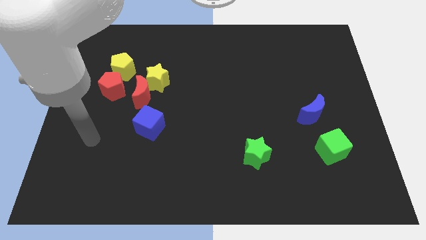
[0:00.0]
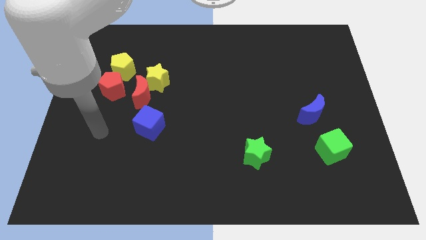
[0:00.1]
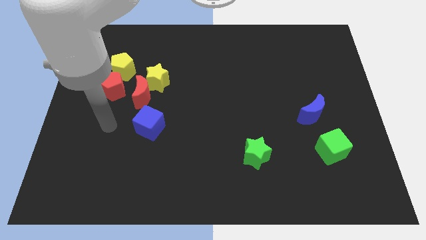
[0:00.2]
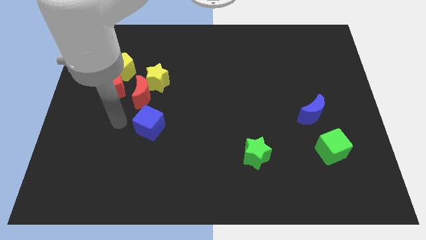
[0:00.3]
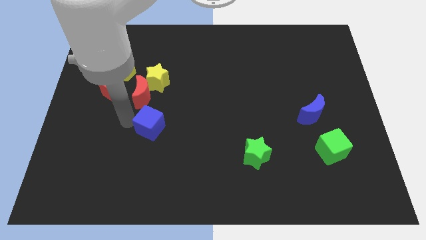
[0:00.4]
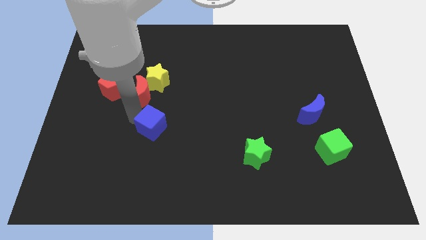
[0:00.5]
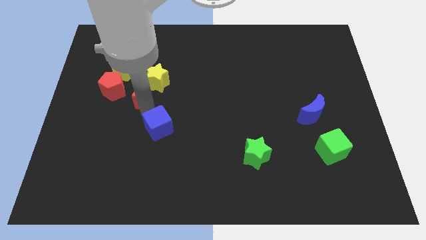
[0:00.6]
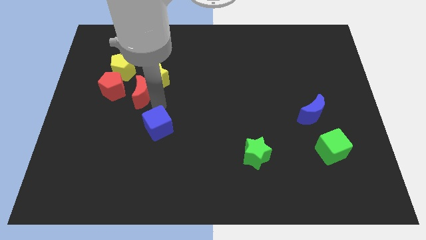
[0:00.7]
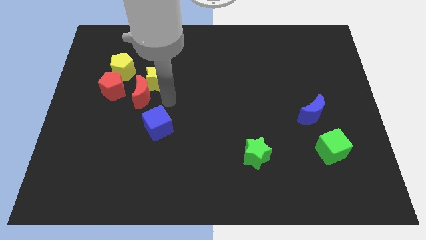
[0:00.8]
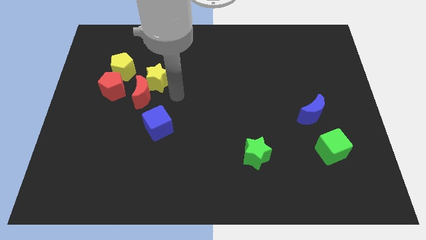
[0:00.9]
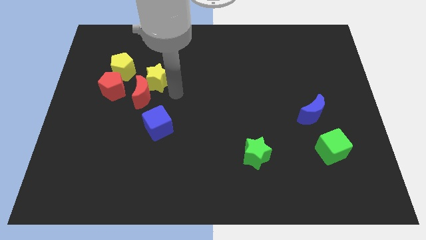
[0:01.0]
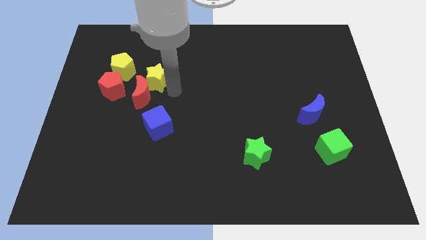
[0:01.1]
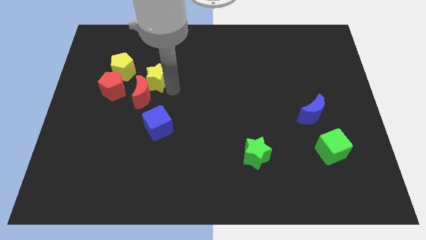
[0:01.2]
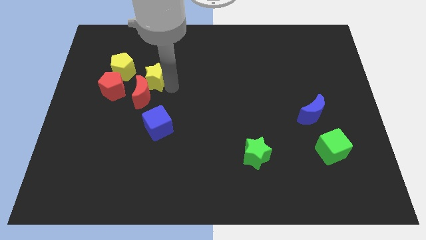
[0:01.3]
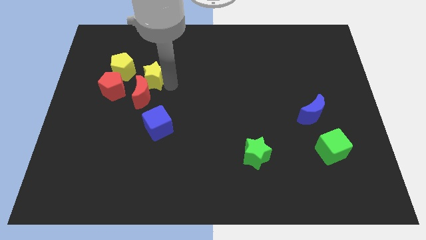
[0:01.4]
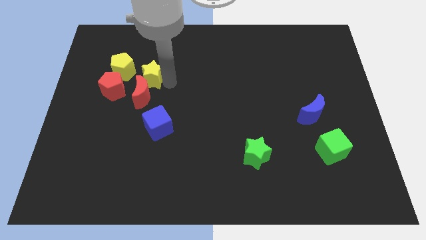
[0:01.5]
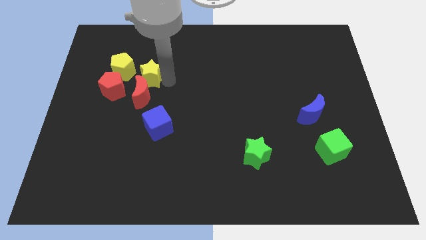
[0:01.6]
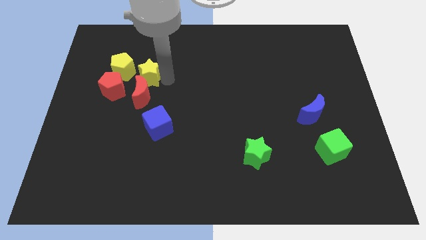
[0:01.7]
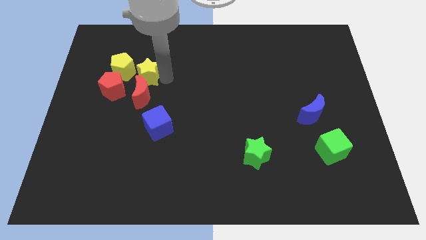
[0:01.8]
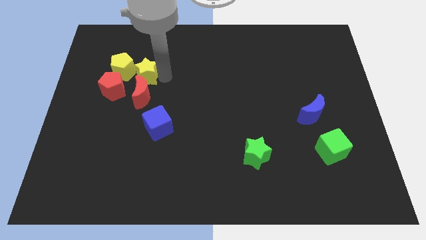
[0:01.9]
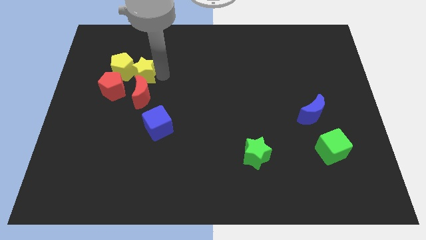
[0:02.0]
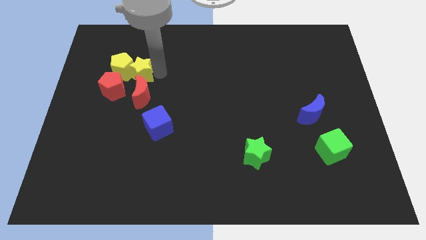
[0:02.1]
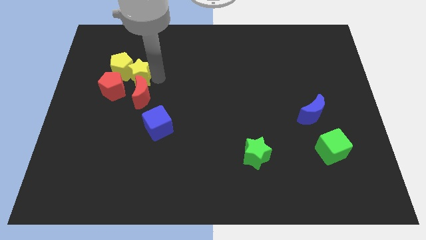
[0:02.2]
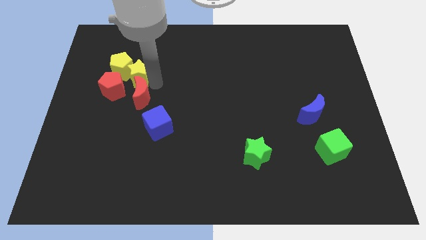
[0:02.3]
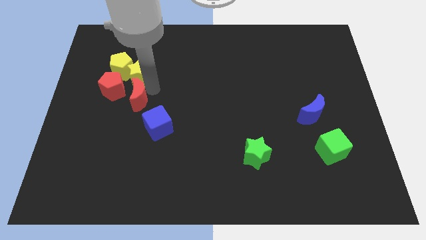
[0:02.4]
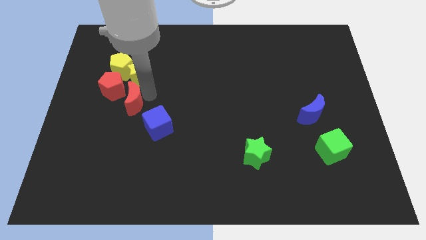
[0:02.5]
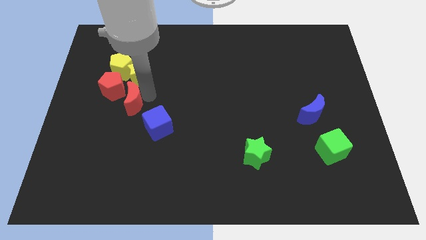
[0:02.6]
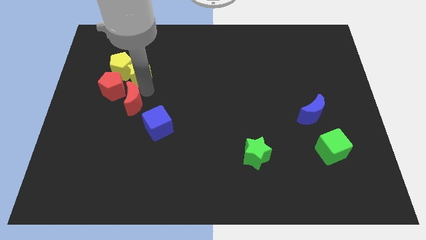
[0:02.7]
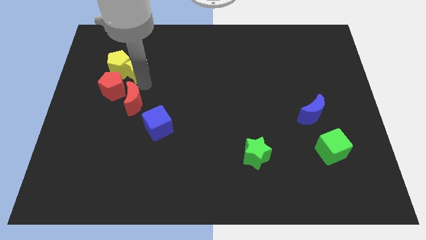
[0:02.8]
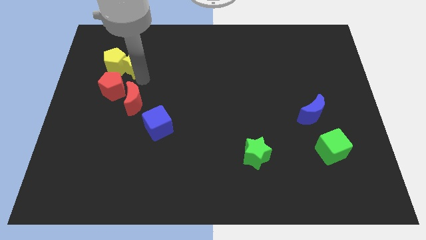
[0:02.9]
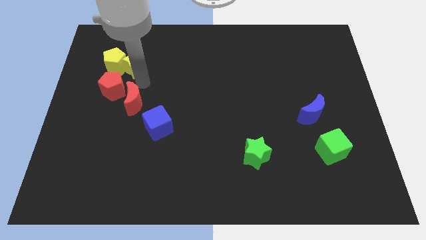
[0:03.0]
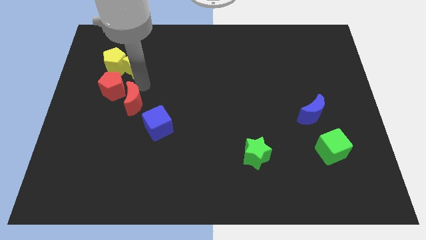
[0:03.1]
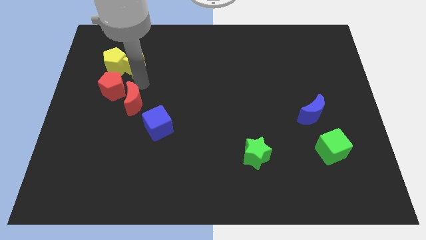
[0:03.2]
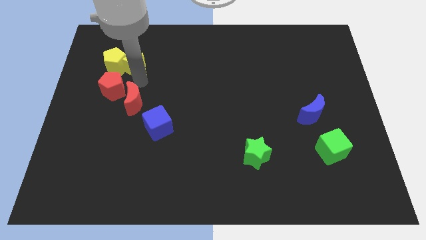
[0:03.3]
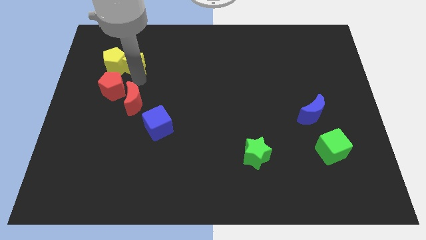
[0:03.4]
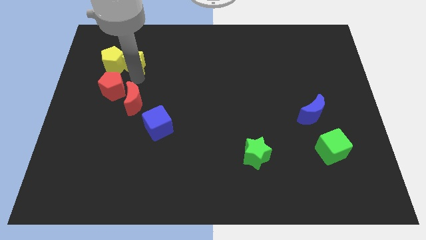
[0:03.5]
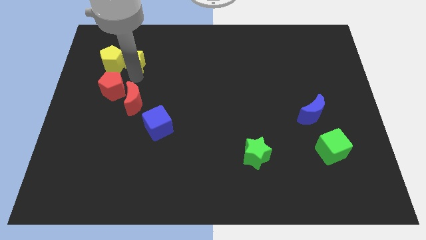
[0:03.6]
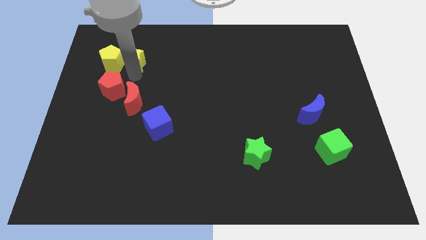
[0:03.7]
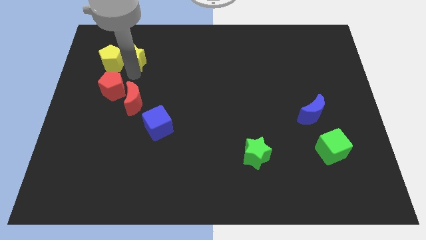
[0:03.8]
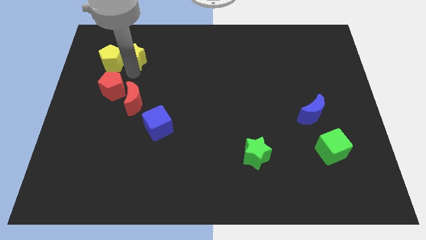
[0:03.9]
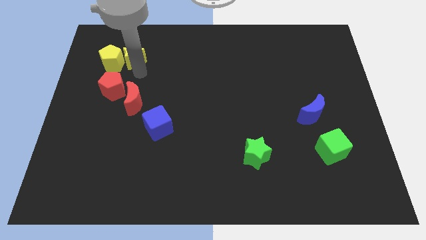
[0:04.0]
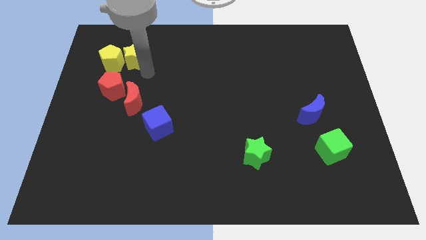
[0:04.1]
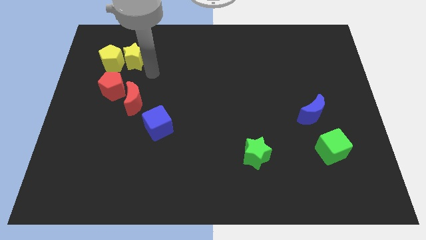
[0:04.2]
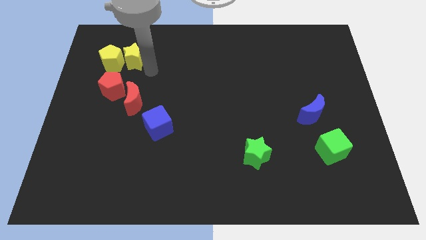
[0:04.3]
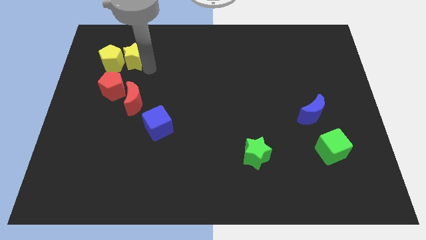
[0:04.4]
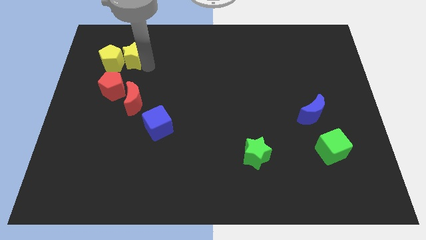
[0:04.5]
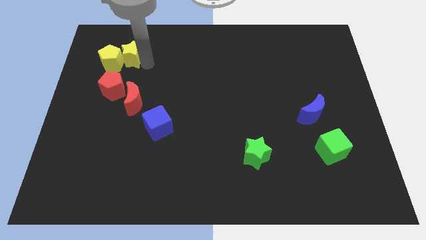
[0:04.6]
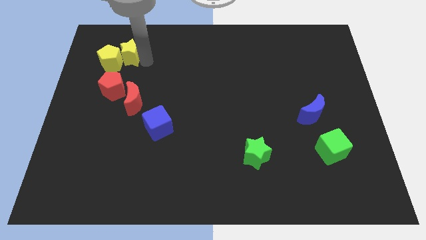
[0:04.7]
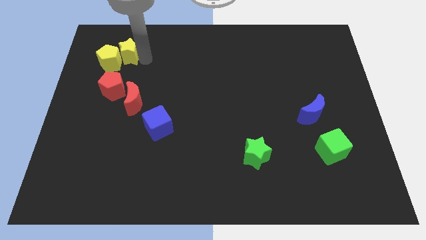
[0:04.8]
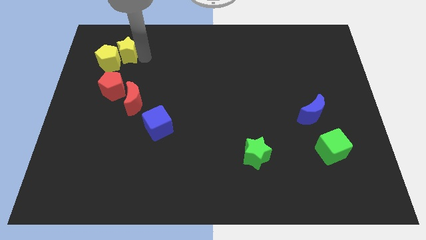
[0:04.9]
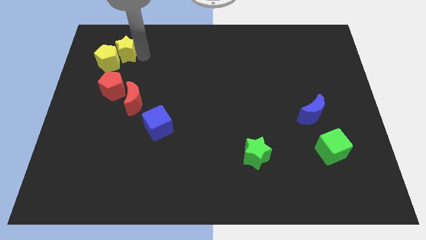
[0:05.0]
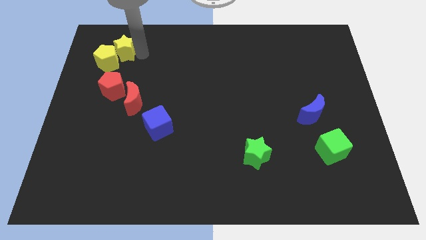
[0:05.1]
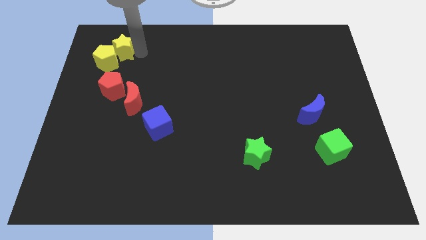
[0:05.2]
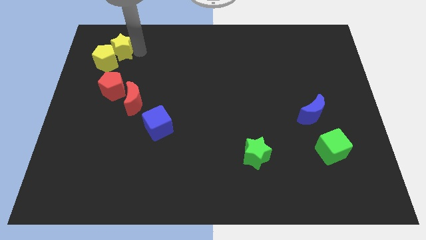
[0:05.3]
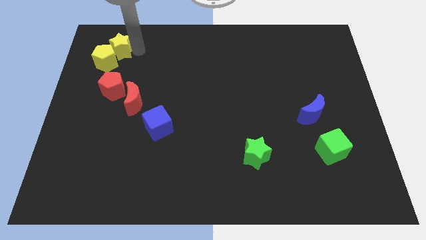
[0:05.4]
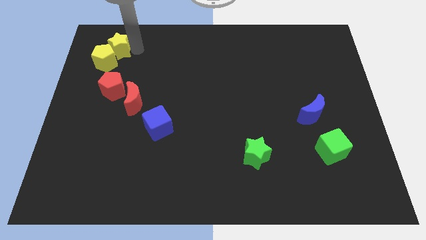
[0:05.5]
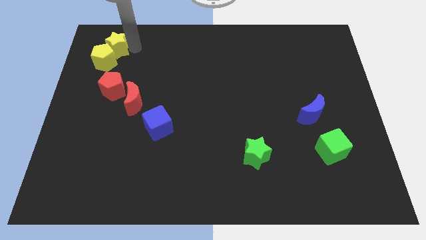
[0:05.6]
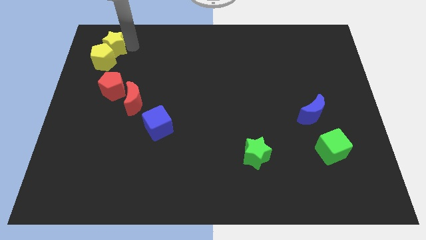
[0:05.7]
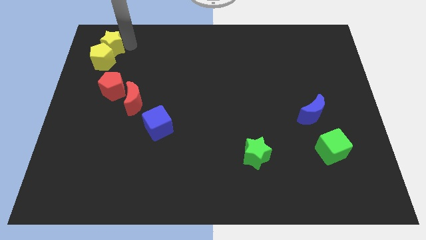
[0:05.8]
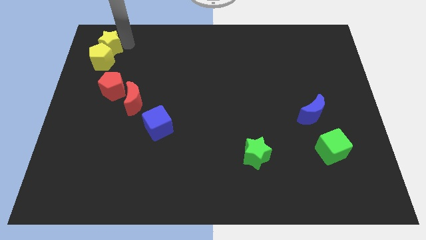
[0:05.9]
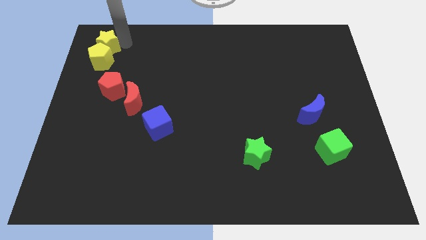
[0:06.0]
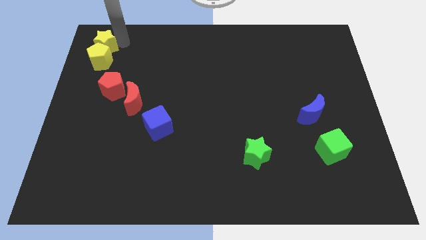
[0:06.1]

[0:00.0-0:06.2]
move the yellow star to the upper left corner
